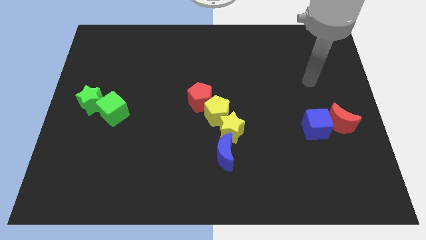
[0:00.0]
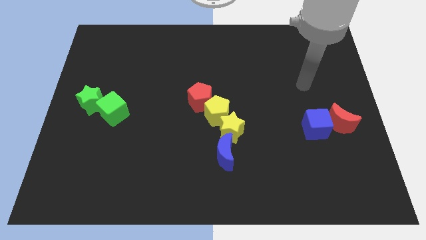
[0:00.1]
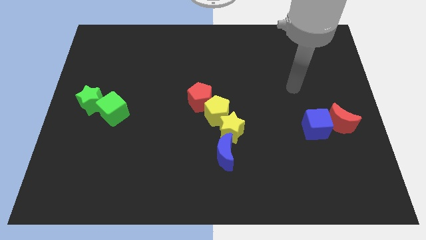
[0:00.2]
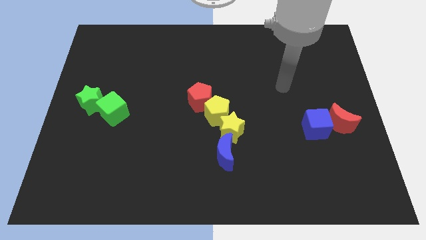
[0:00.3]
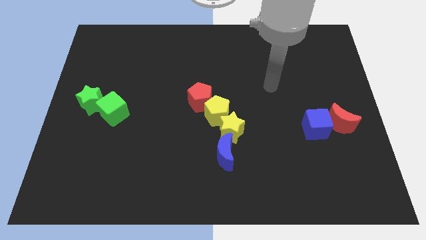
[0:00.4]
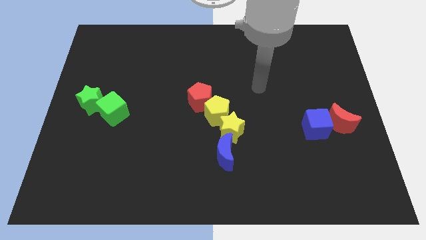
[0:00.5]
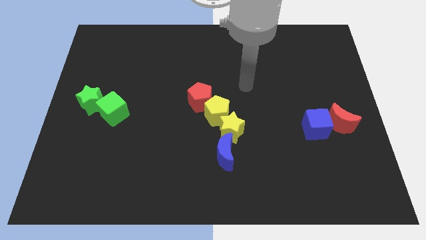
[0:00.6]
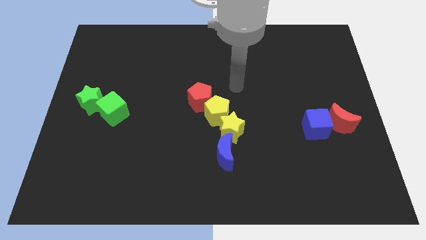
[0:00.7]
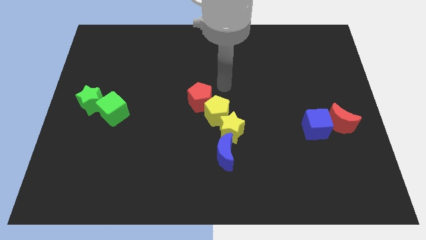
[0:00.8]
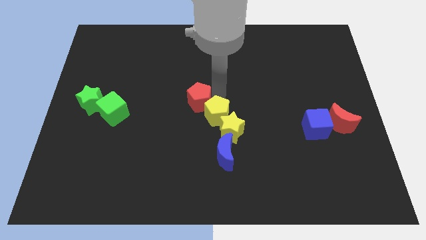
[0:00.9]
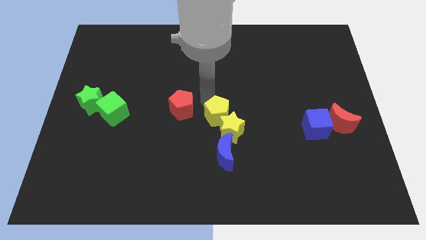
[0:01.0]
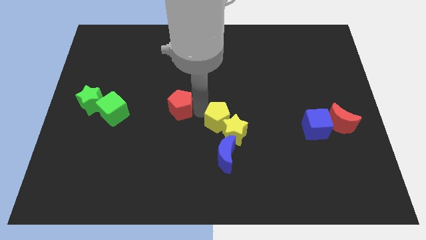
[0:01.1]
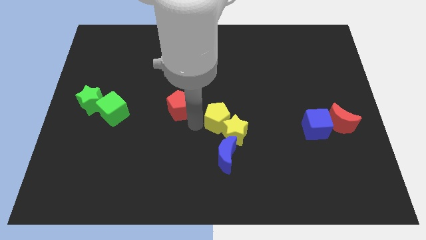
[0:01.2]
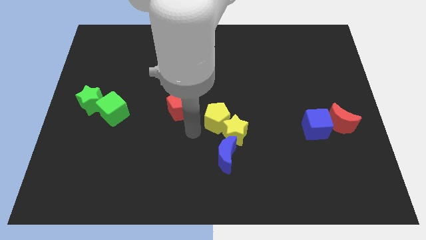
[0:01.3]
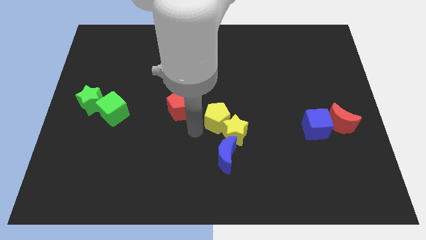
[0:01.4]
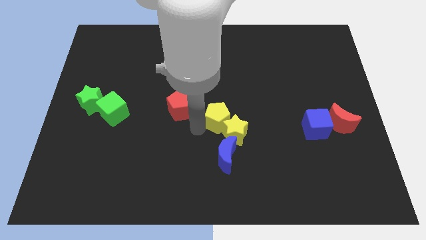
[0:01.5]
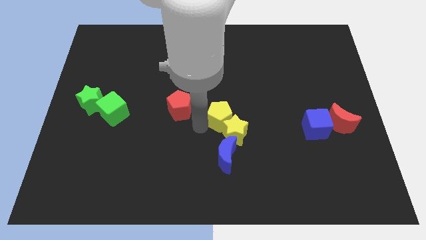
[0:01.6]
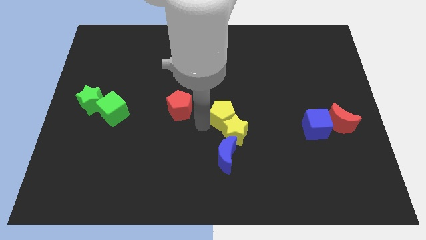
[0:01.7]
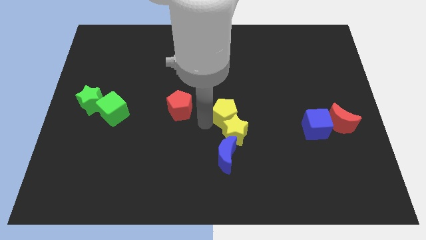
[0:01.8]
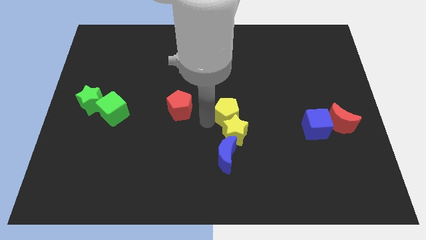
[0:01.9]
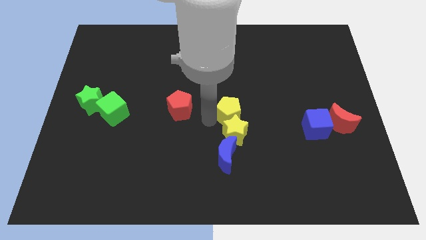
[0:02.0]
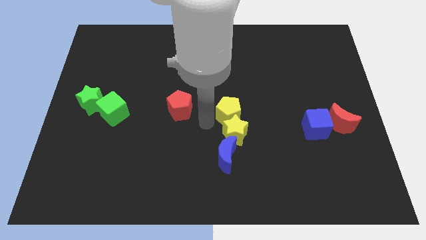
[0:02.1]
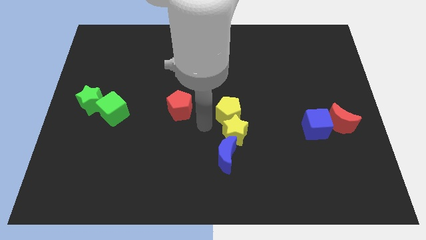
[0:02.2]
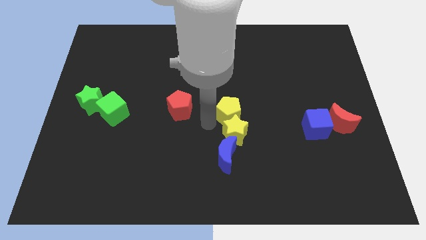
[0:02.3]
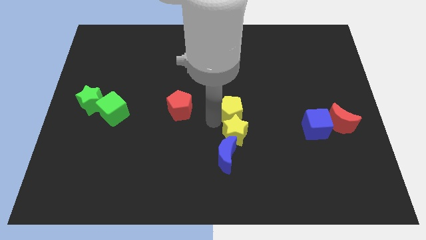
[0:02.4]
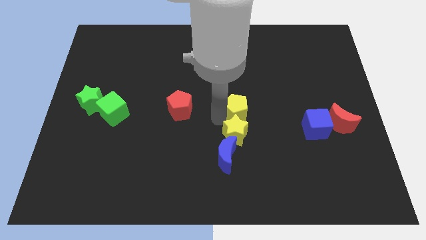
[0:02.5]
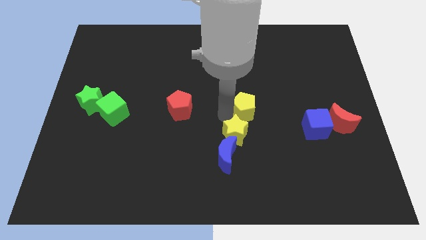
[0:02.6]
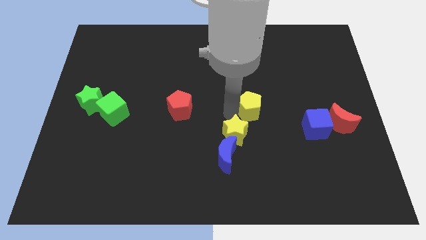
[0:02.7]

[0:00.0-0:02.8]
move the yellow pentagon away from the yellow star and red pentagon

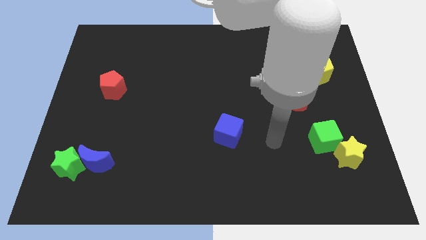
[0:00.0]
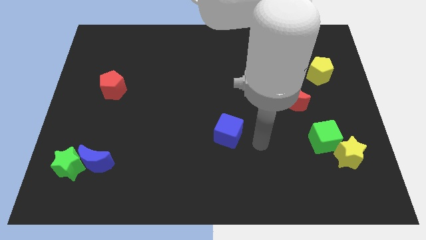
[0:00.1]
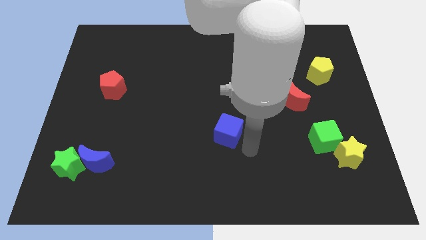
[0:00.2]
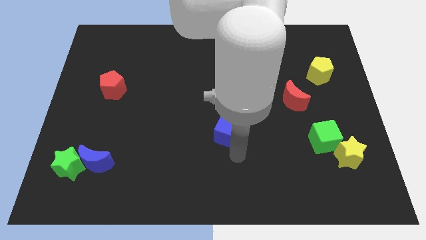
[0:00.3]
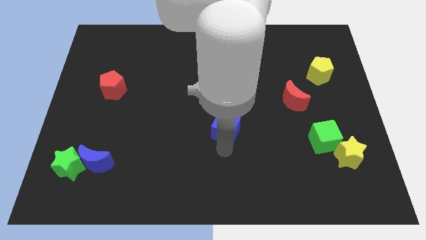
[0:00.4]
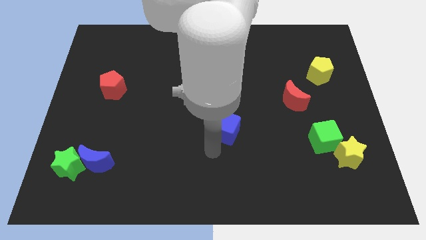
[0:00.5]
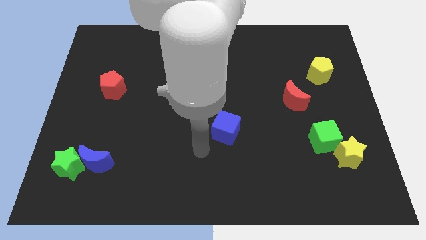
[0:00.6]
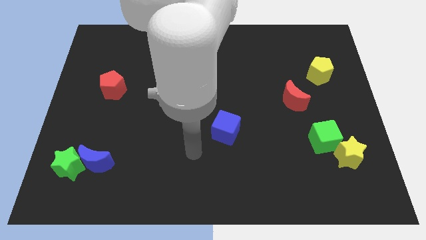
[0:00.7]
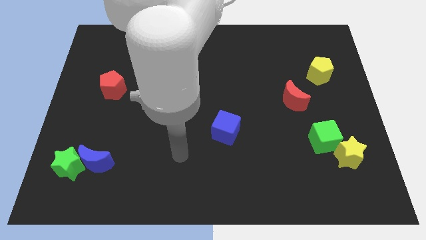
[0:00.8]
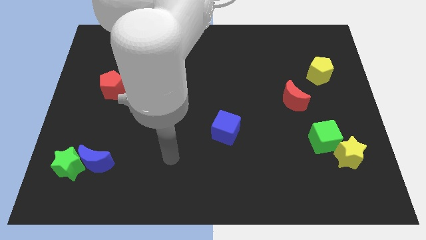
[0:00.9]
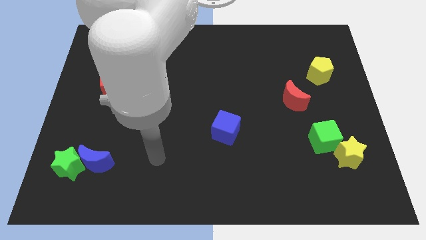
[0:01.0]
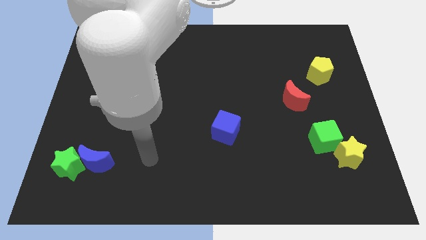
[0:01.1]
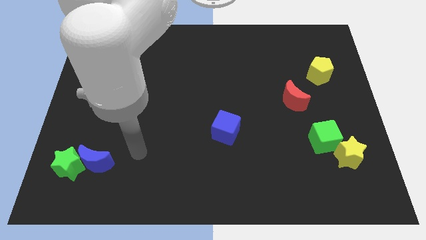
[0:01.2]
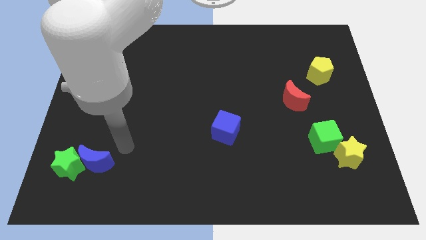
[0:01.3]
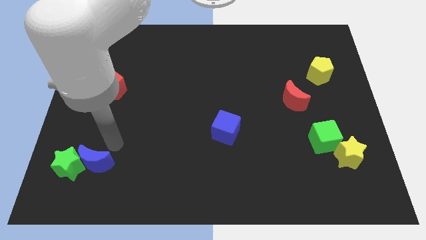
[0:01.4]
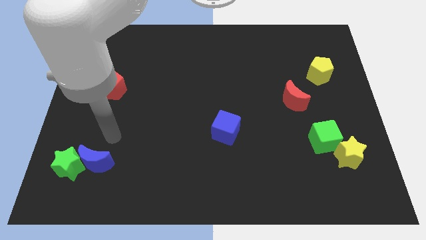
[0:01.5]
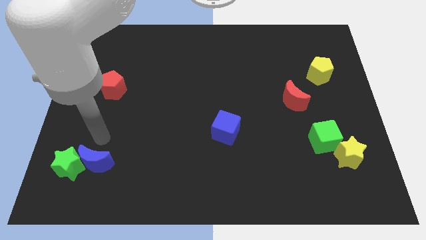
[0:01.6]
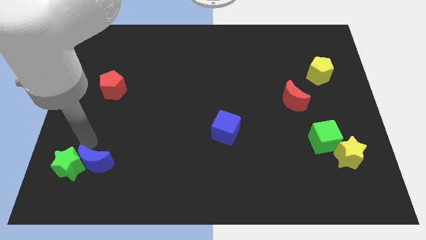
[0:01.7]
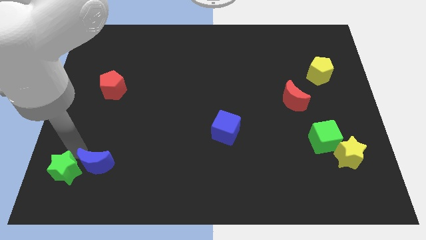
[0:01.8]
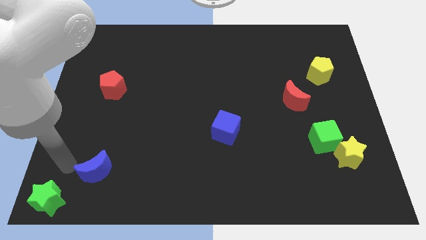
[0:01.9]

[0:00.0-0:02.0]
move the blue moon away from the green star

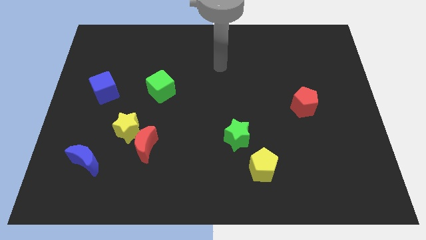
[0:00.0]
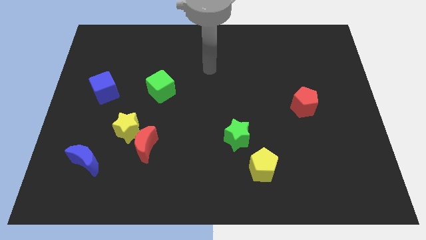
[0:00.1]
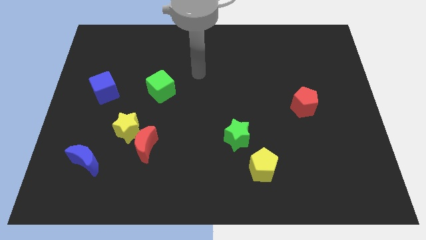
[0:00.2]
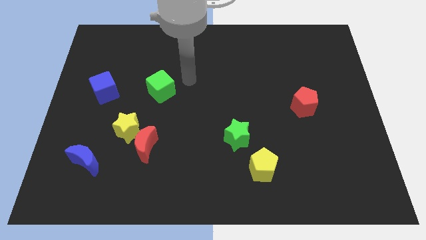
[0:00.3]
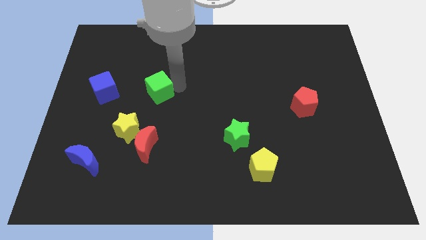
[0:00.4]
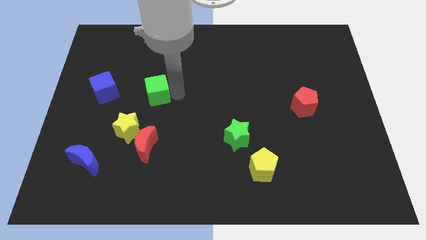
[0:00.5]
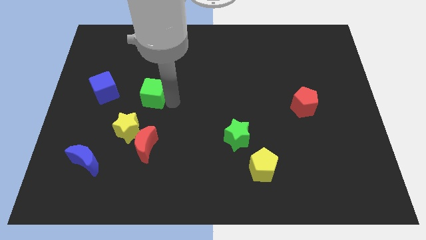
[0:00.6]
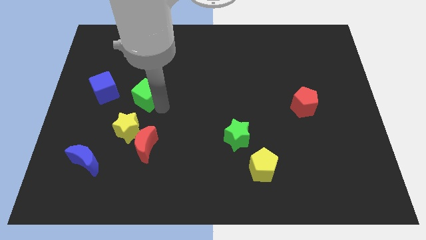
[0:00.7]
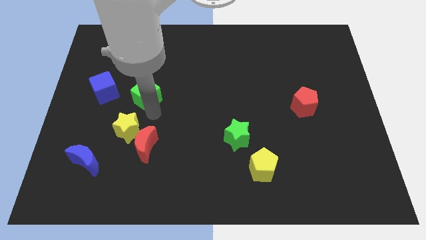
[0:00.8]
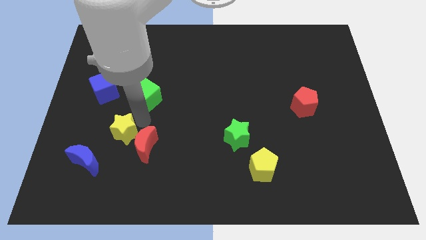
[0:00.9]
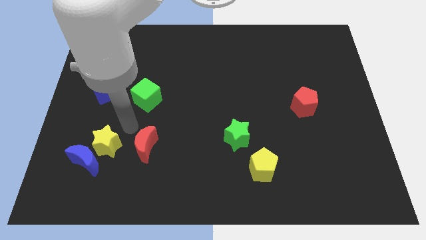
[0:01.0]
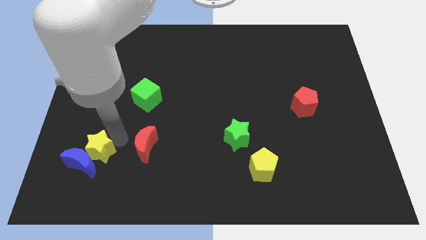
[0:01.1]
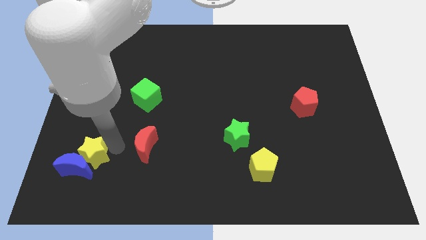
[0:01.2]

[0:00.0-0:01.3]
move the red moon away from the yellow star

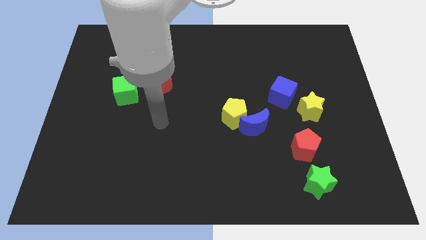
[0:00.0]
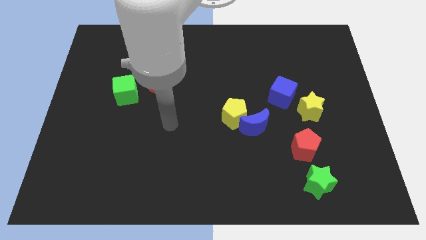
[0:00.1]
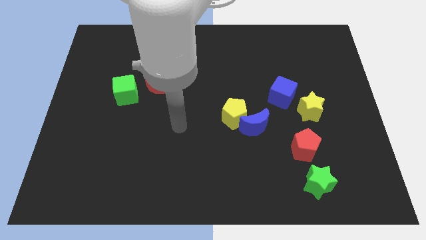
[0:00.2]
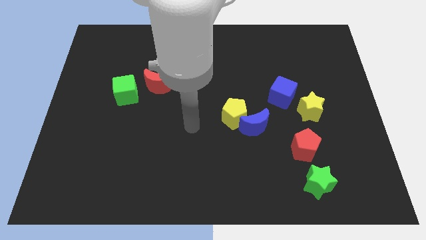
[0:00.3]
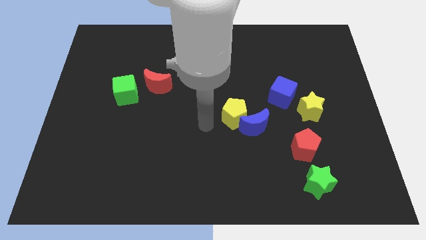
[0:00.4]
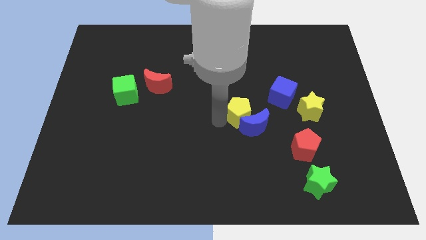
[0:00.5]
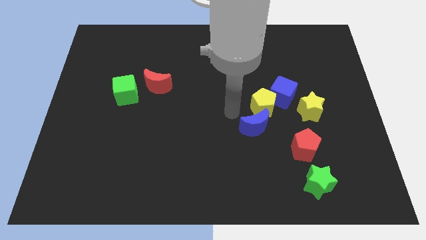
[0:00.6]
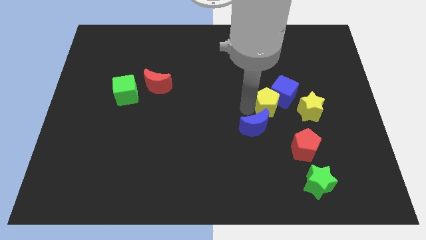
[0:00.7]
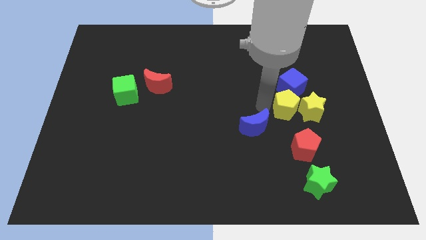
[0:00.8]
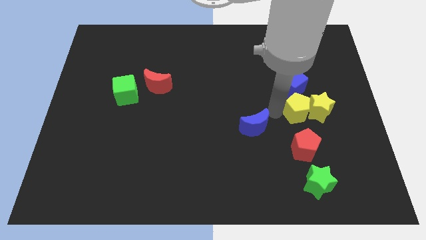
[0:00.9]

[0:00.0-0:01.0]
move the blue moon away from the yellow pentagon

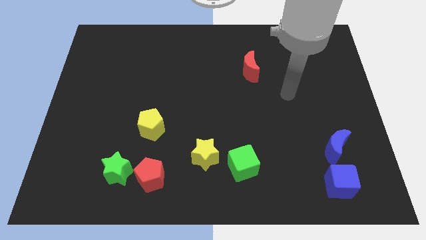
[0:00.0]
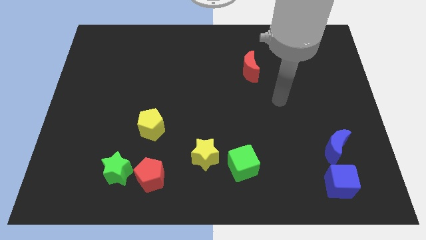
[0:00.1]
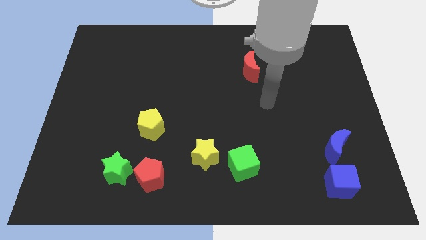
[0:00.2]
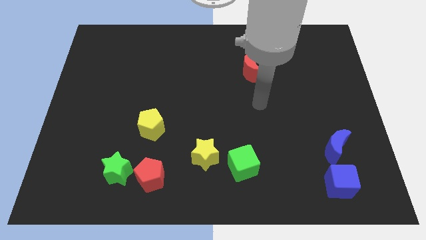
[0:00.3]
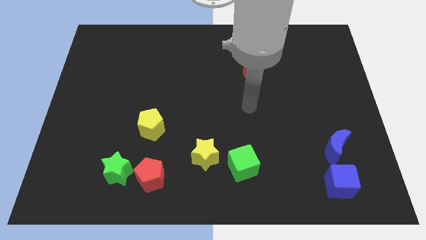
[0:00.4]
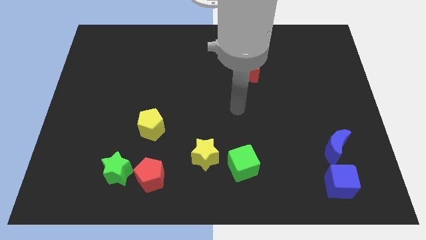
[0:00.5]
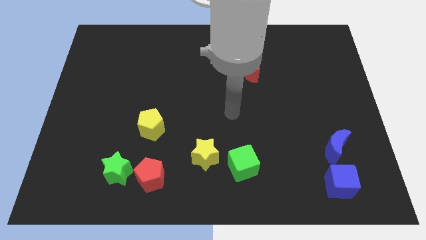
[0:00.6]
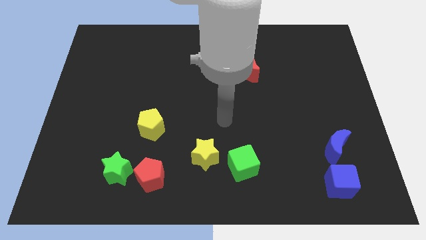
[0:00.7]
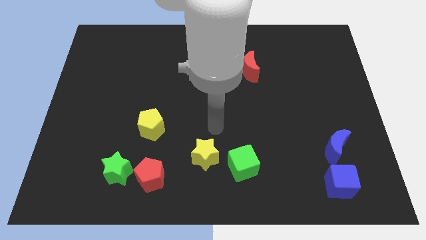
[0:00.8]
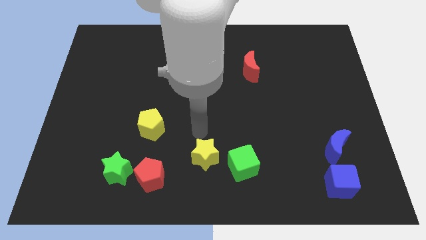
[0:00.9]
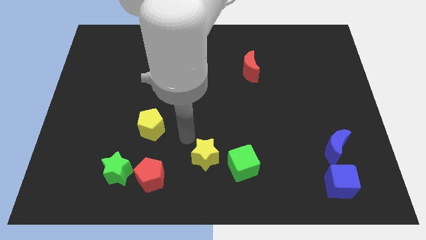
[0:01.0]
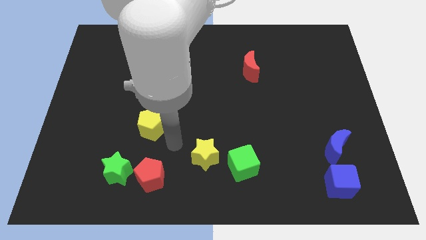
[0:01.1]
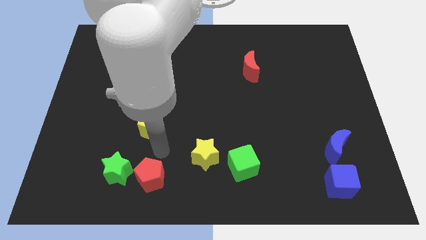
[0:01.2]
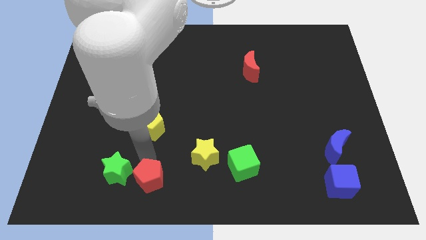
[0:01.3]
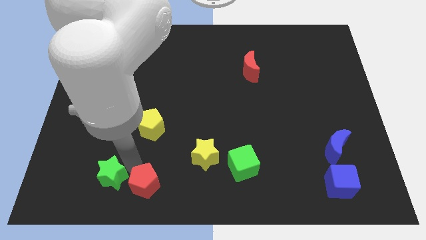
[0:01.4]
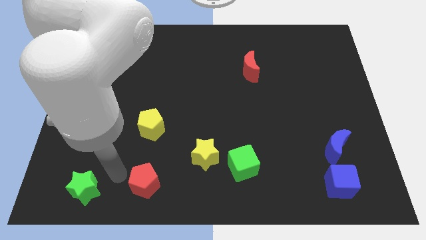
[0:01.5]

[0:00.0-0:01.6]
move the red pentagon away from the green star

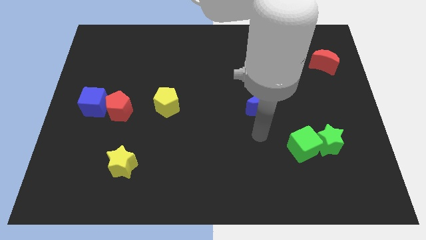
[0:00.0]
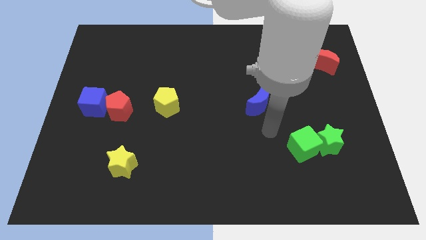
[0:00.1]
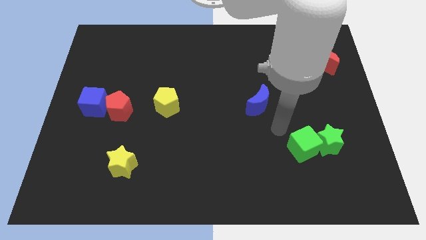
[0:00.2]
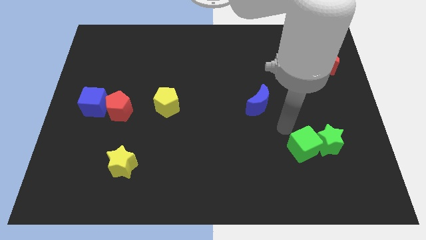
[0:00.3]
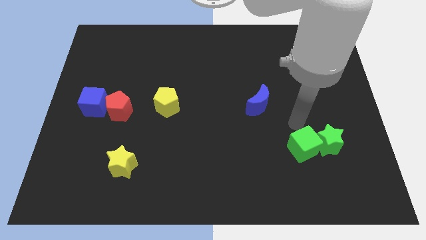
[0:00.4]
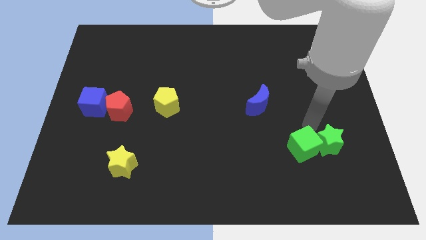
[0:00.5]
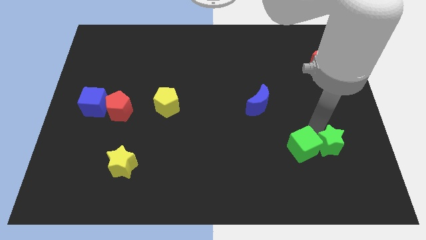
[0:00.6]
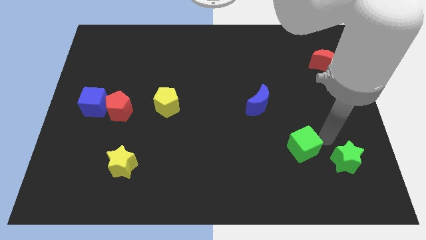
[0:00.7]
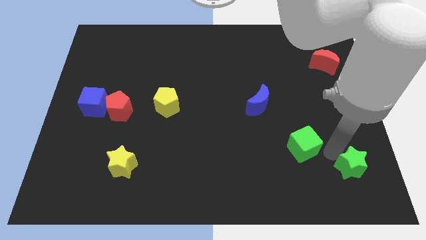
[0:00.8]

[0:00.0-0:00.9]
pull the green cube apart from the green star
